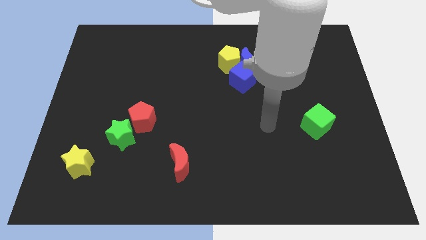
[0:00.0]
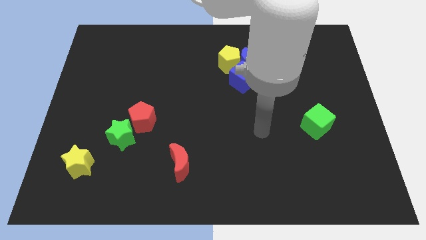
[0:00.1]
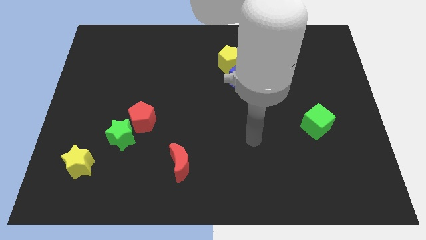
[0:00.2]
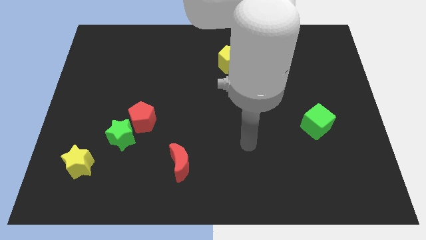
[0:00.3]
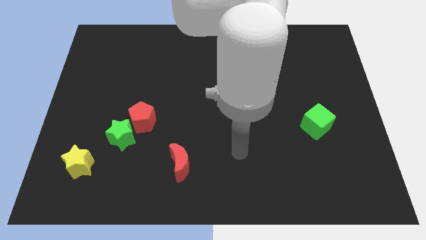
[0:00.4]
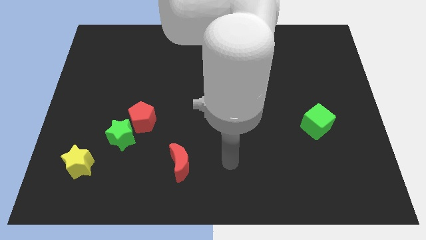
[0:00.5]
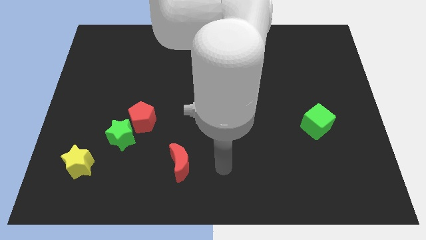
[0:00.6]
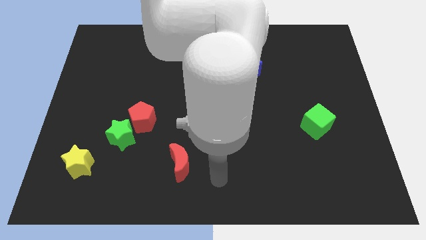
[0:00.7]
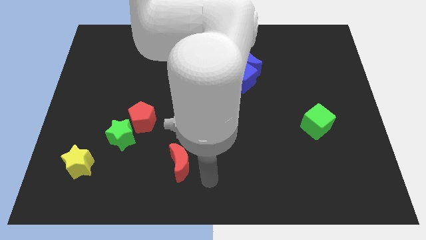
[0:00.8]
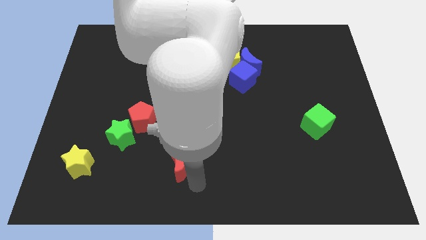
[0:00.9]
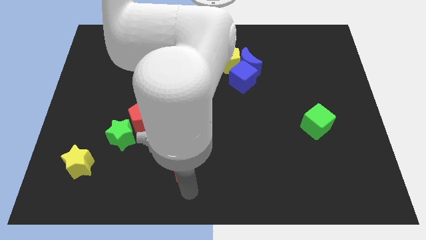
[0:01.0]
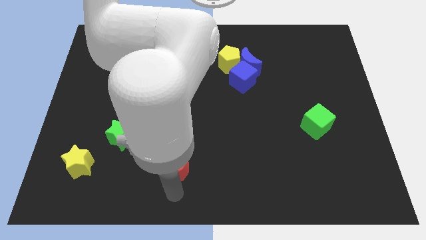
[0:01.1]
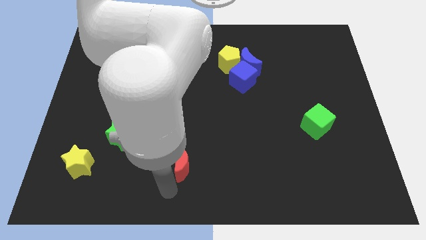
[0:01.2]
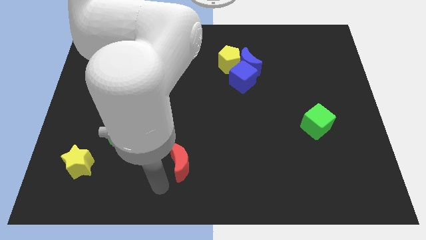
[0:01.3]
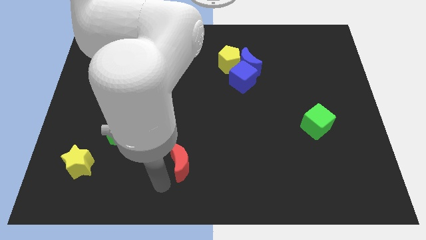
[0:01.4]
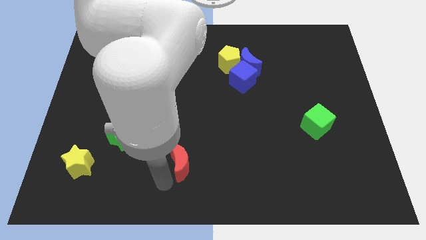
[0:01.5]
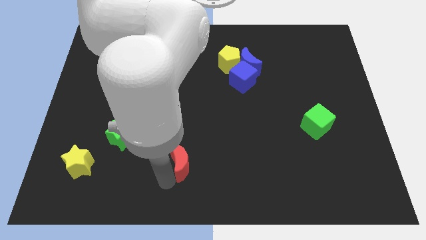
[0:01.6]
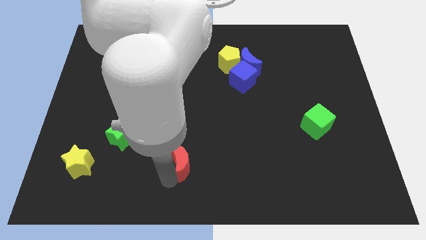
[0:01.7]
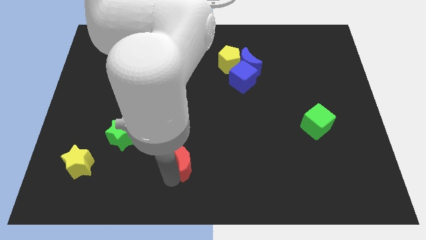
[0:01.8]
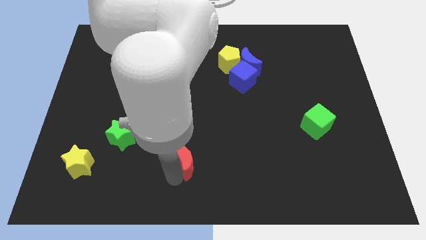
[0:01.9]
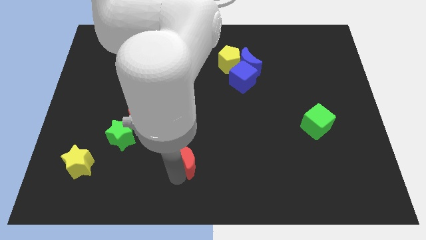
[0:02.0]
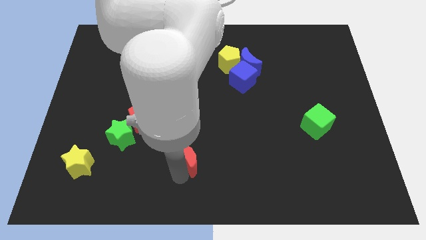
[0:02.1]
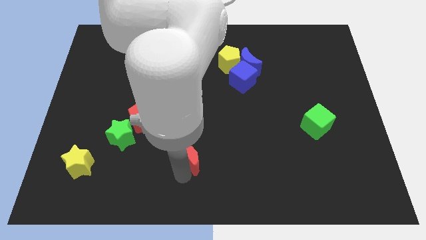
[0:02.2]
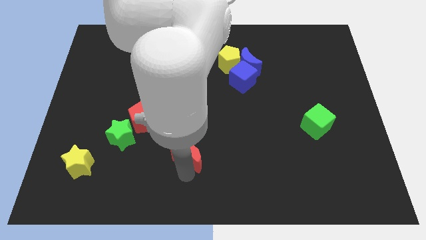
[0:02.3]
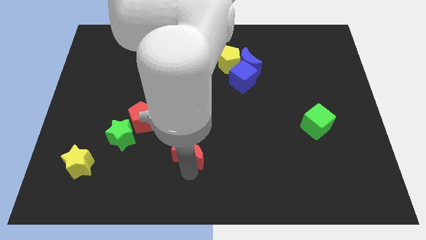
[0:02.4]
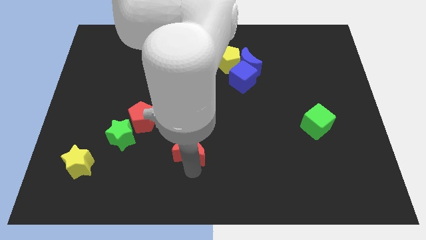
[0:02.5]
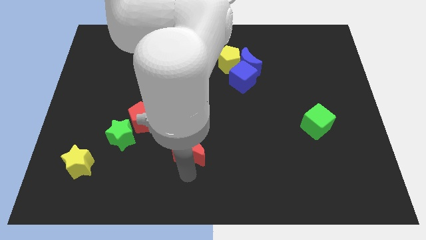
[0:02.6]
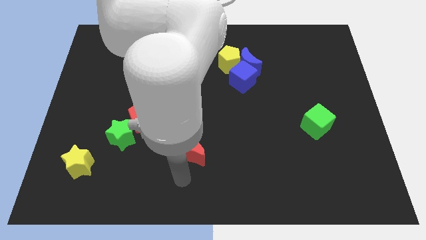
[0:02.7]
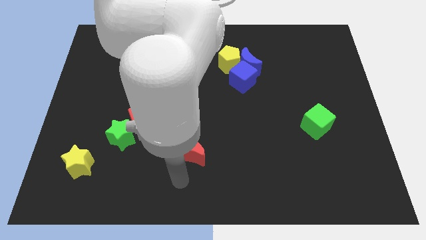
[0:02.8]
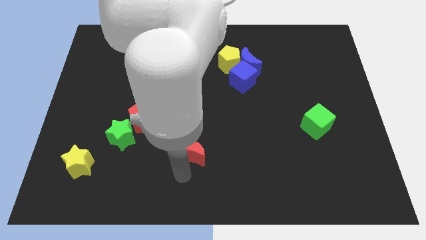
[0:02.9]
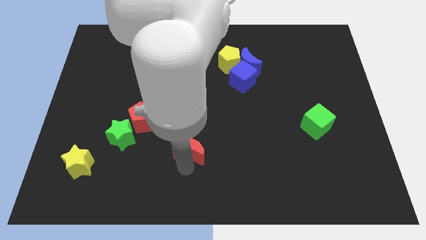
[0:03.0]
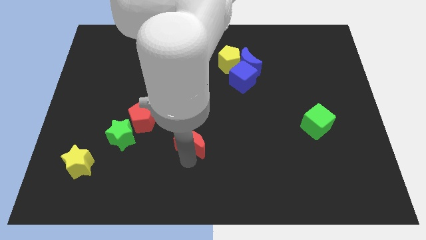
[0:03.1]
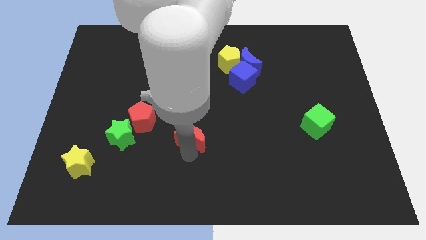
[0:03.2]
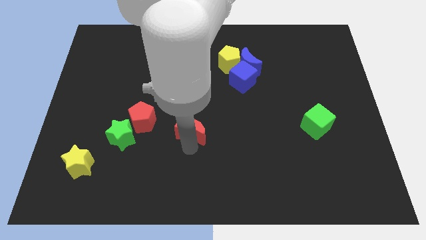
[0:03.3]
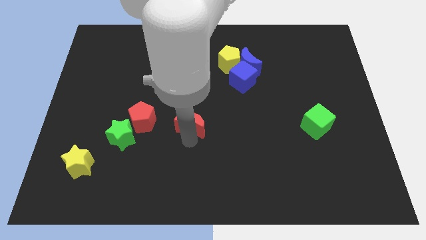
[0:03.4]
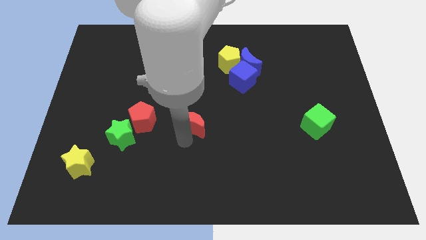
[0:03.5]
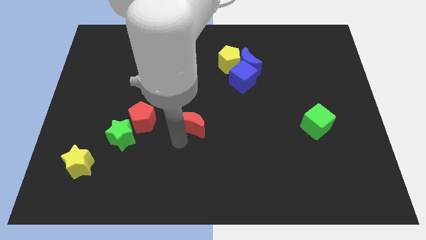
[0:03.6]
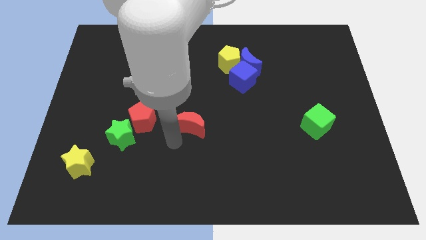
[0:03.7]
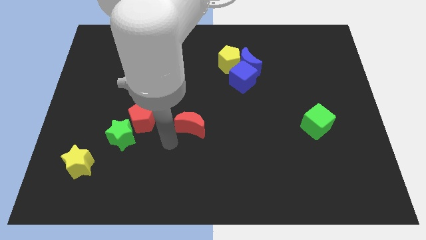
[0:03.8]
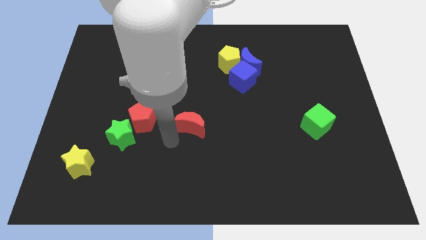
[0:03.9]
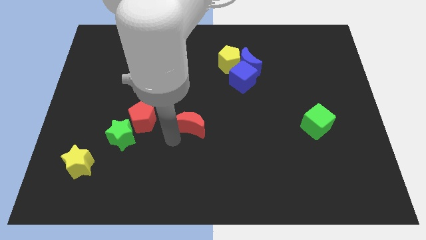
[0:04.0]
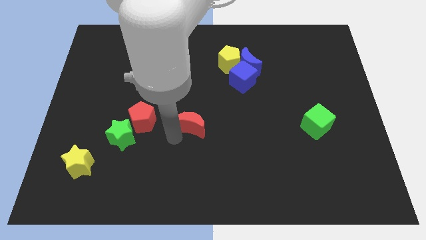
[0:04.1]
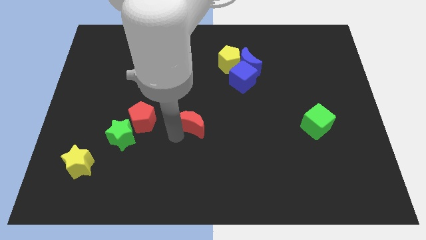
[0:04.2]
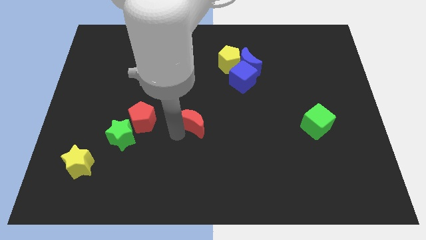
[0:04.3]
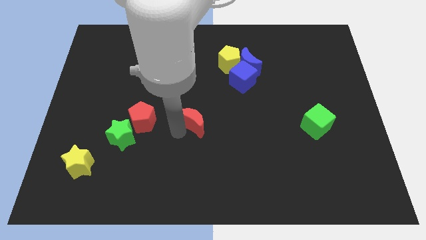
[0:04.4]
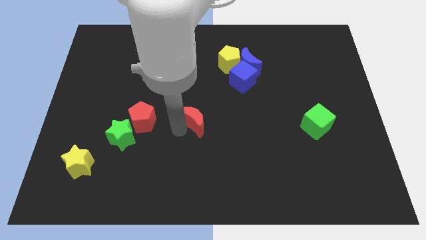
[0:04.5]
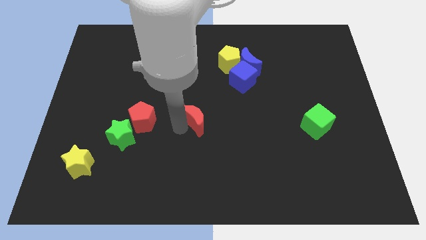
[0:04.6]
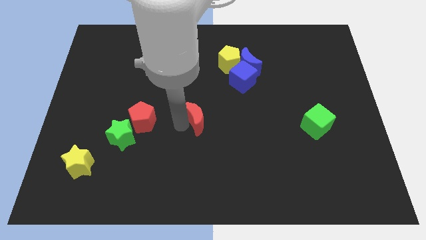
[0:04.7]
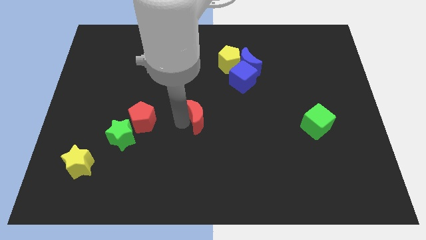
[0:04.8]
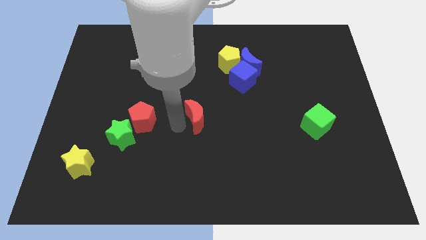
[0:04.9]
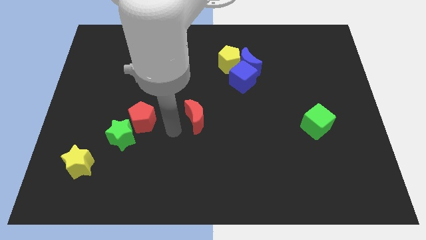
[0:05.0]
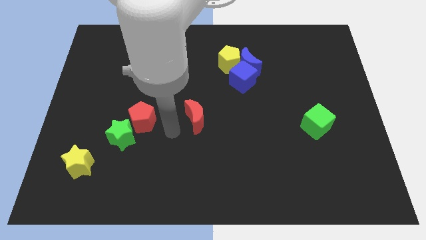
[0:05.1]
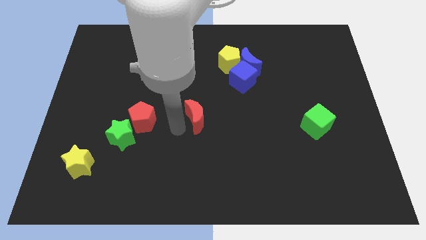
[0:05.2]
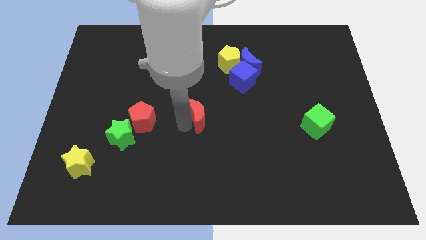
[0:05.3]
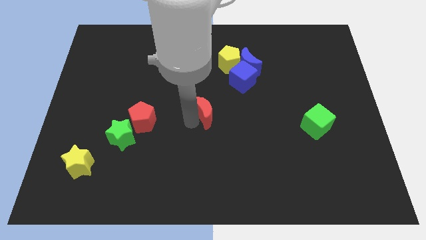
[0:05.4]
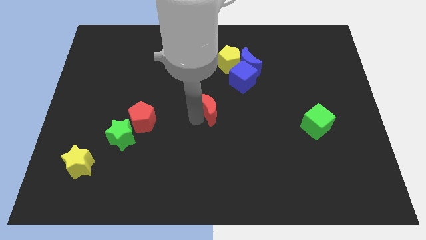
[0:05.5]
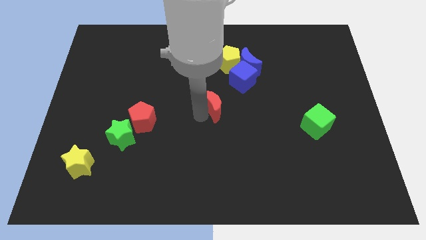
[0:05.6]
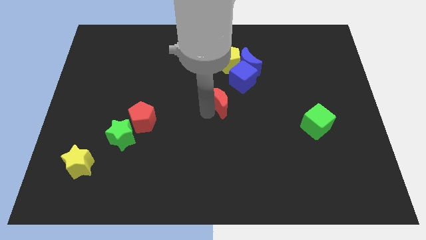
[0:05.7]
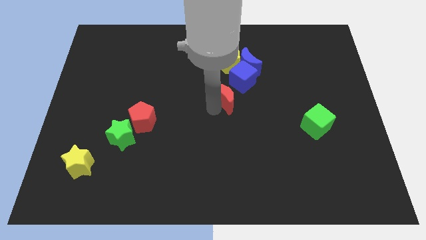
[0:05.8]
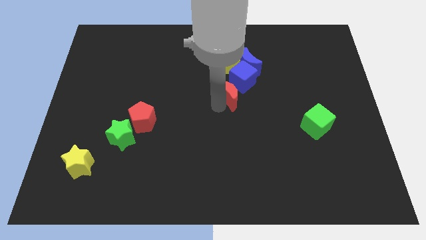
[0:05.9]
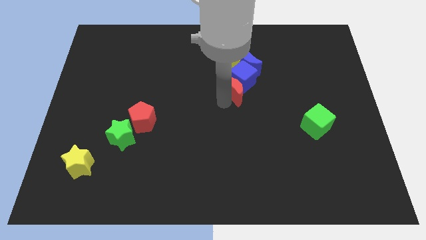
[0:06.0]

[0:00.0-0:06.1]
put the red moon next to the blue cube
